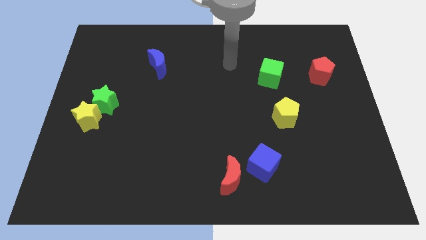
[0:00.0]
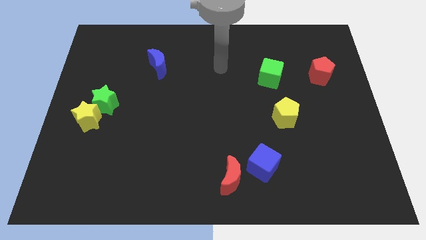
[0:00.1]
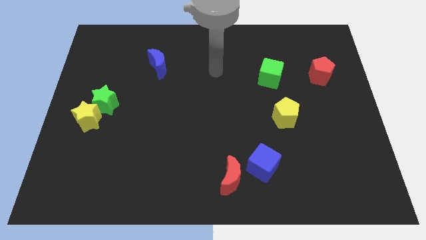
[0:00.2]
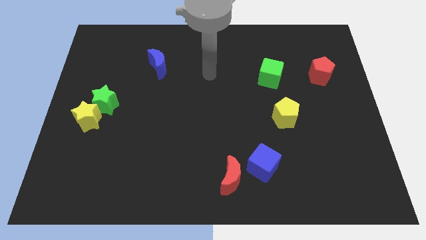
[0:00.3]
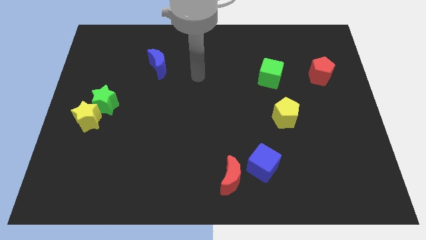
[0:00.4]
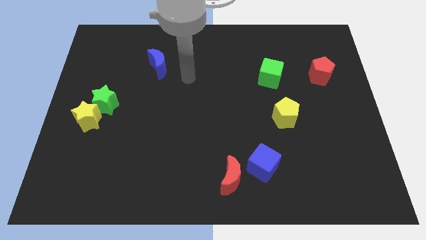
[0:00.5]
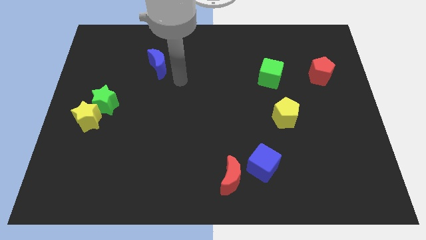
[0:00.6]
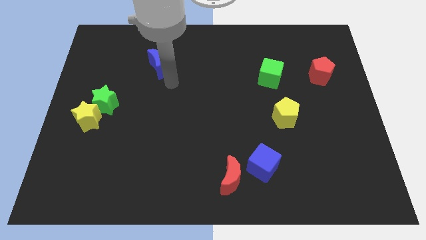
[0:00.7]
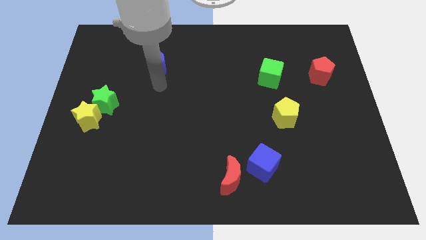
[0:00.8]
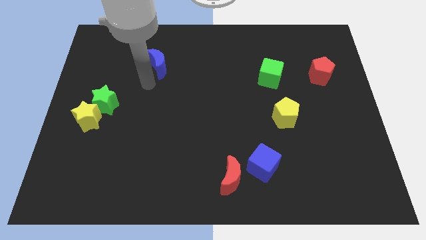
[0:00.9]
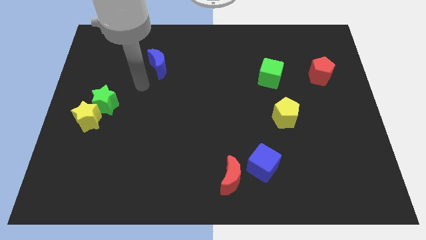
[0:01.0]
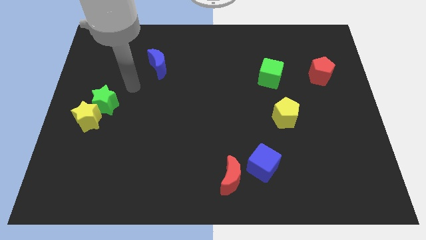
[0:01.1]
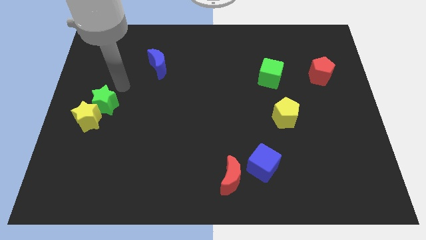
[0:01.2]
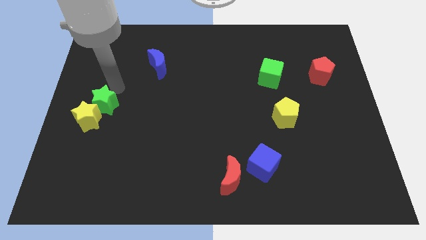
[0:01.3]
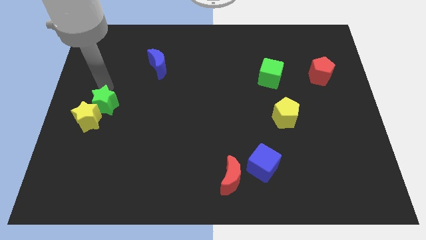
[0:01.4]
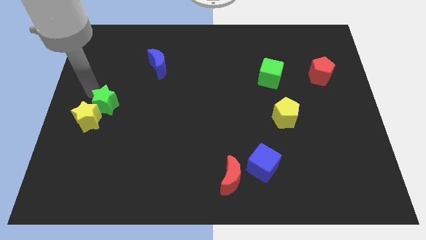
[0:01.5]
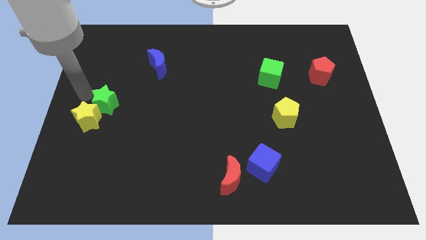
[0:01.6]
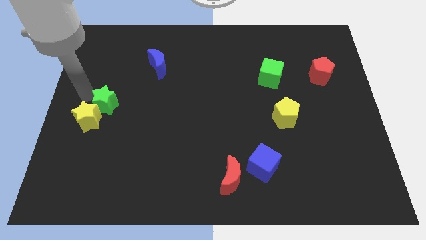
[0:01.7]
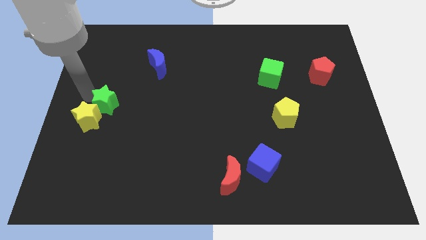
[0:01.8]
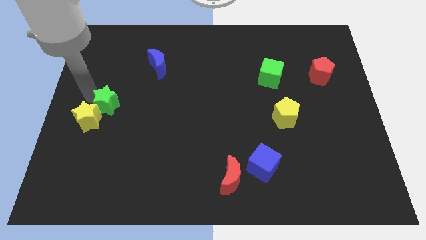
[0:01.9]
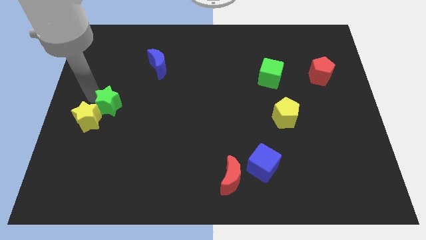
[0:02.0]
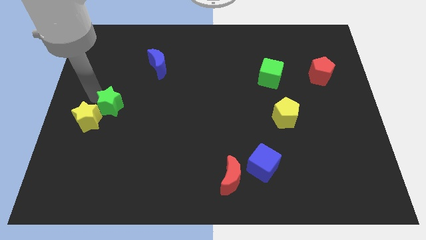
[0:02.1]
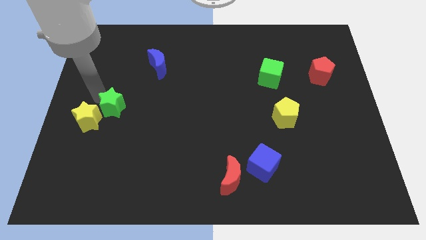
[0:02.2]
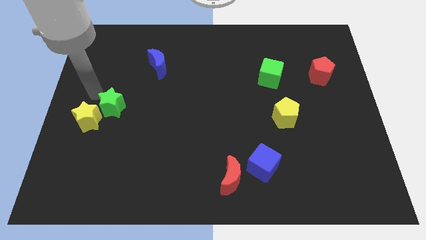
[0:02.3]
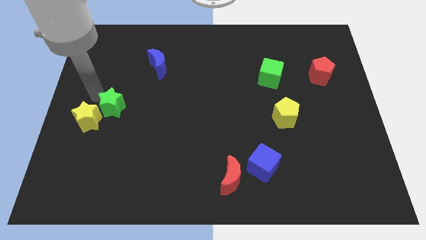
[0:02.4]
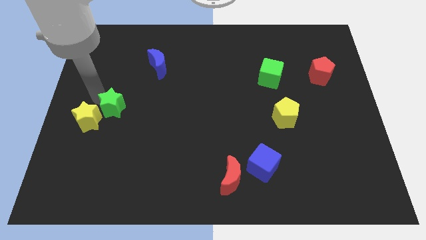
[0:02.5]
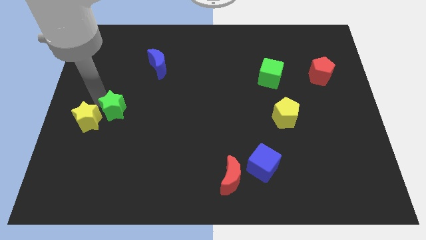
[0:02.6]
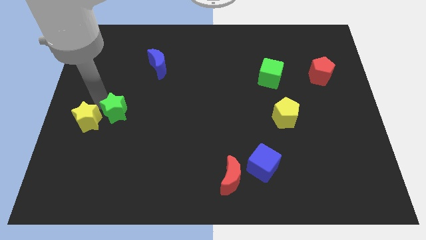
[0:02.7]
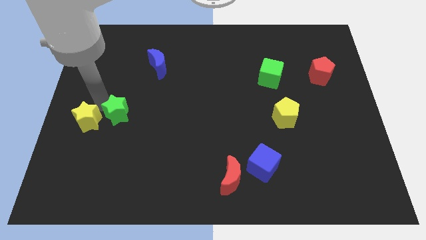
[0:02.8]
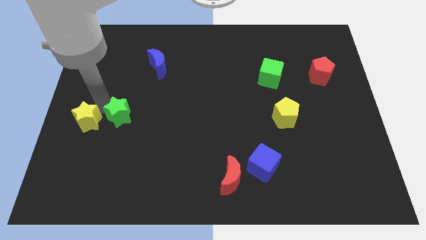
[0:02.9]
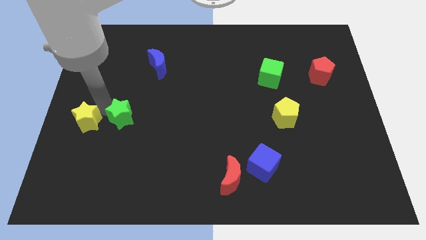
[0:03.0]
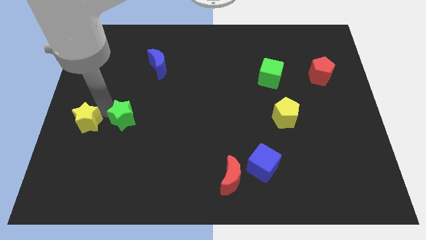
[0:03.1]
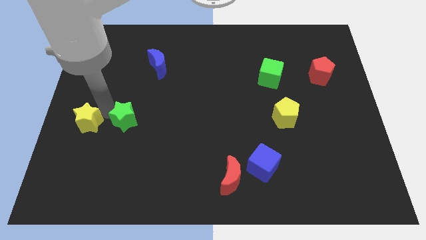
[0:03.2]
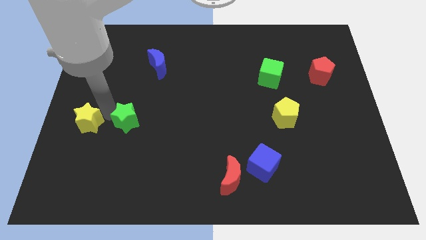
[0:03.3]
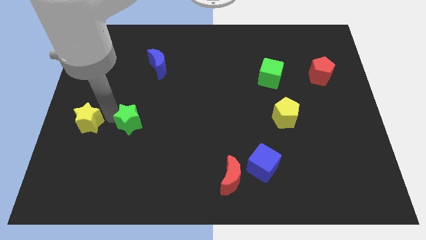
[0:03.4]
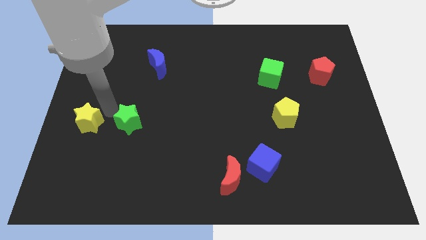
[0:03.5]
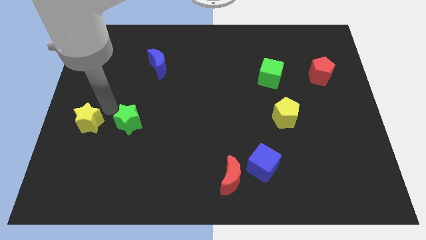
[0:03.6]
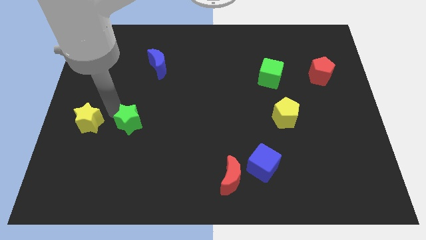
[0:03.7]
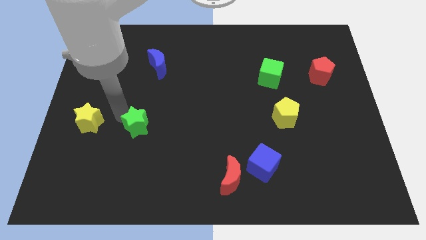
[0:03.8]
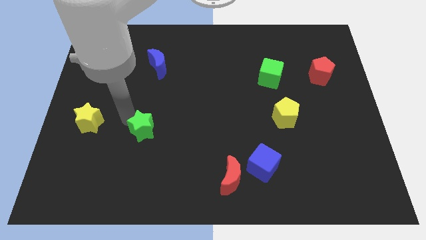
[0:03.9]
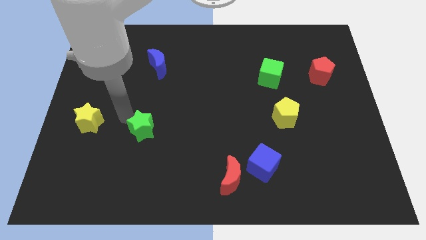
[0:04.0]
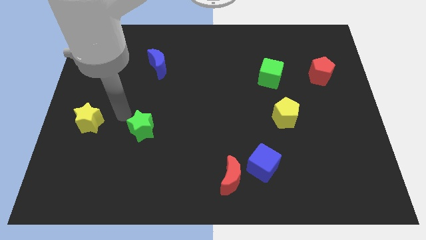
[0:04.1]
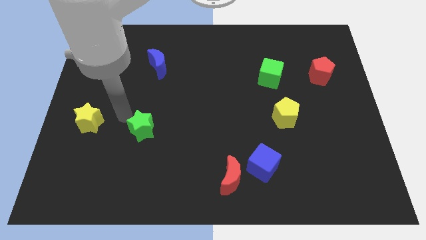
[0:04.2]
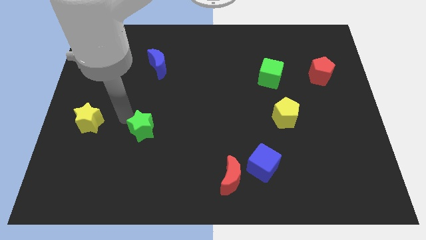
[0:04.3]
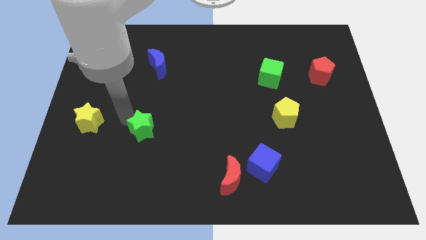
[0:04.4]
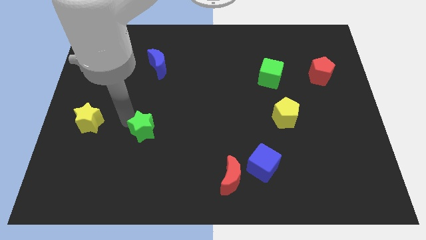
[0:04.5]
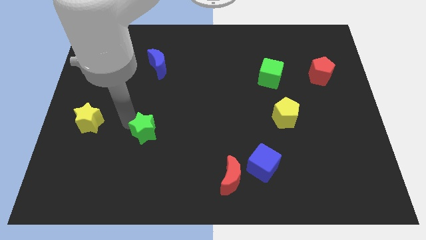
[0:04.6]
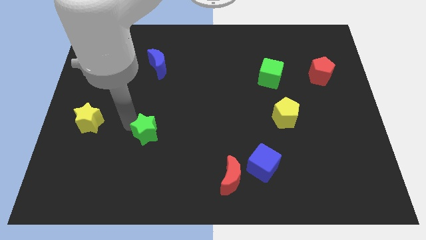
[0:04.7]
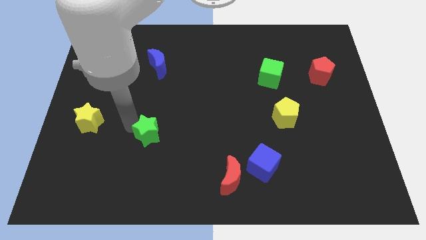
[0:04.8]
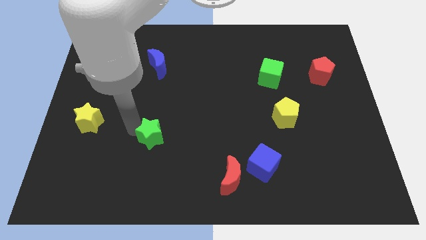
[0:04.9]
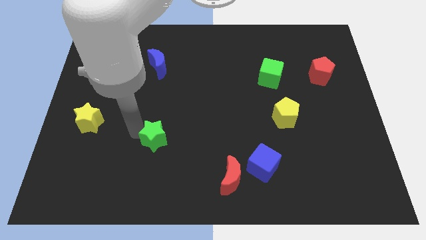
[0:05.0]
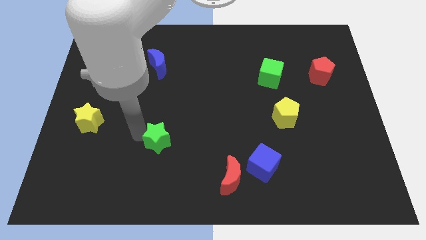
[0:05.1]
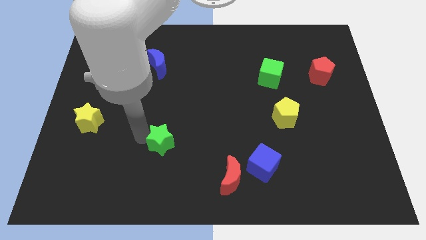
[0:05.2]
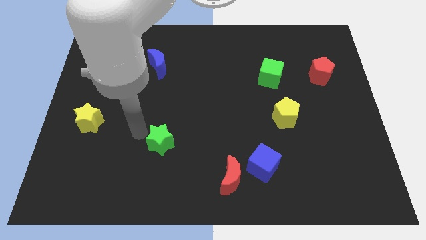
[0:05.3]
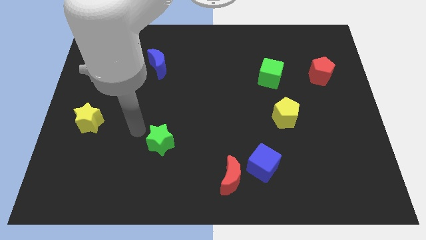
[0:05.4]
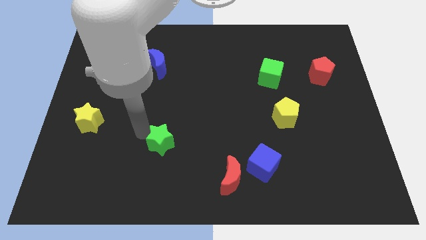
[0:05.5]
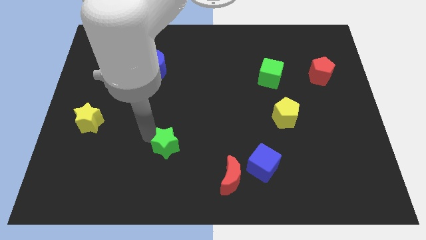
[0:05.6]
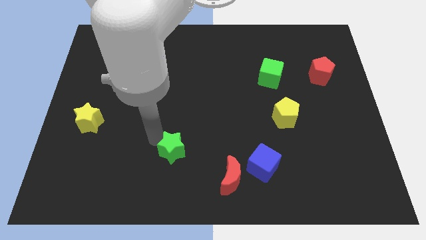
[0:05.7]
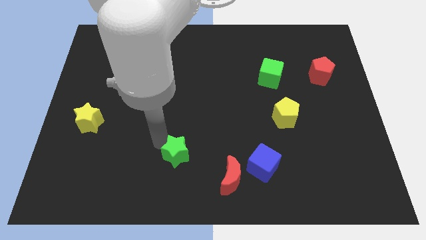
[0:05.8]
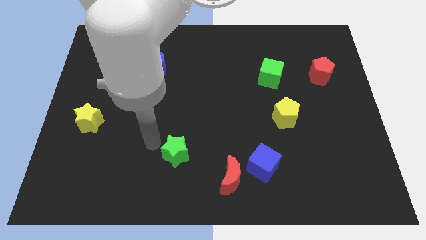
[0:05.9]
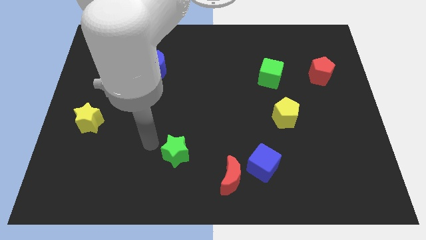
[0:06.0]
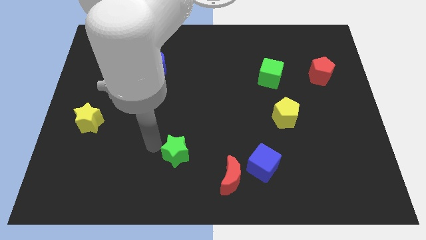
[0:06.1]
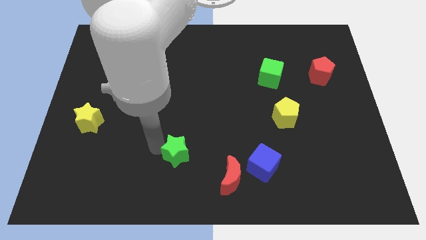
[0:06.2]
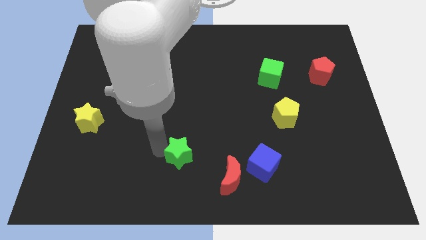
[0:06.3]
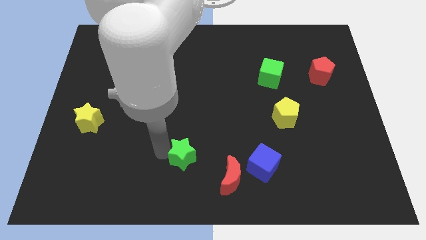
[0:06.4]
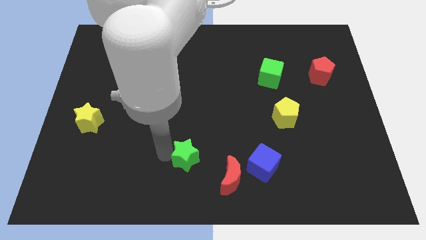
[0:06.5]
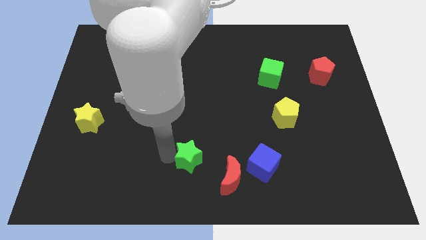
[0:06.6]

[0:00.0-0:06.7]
put the green star to the left side of the blue cube

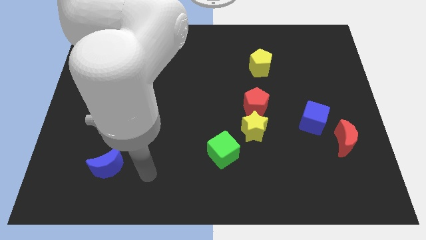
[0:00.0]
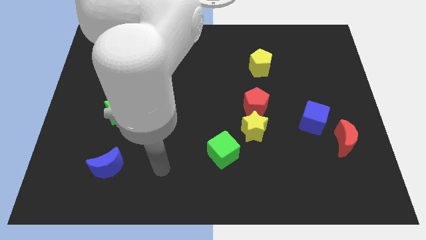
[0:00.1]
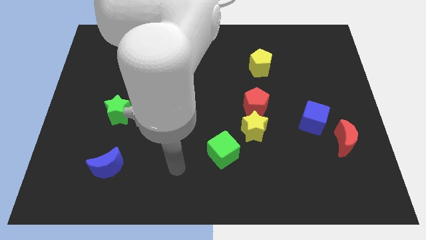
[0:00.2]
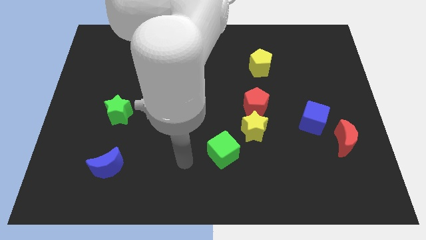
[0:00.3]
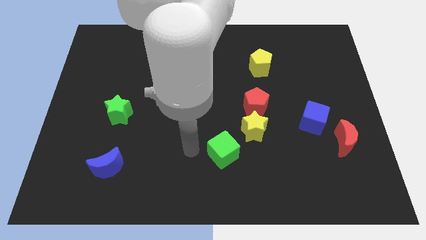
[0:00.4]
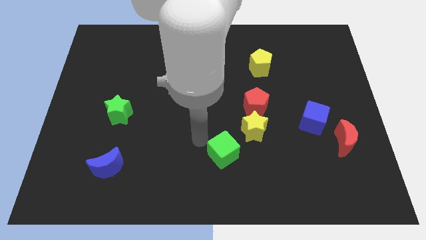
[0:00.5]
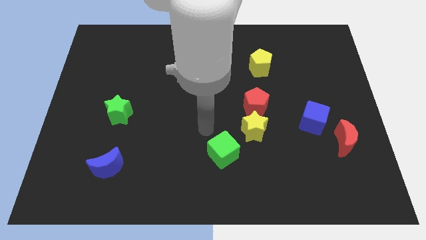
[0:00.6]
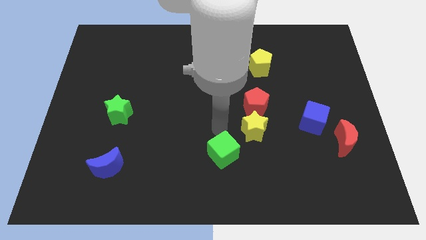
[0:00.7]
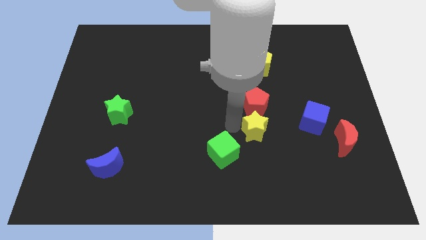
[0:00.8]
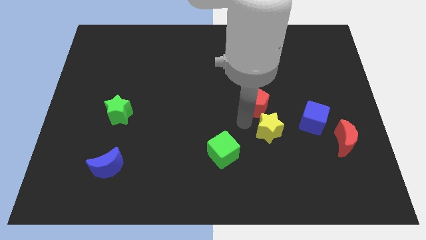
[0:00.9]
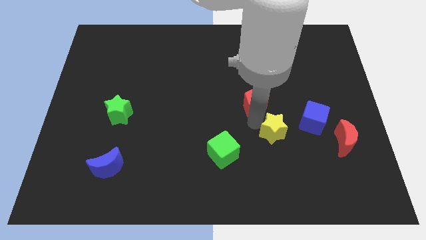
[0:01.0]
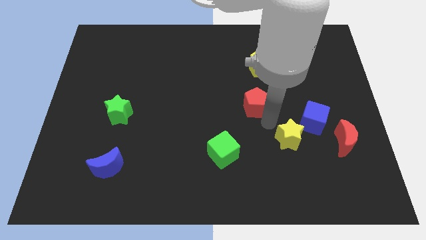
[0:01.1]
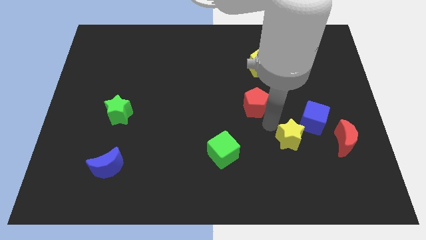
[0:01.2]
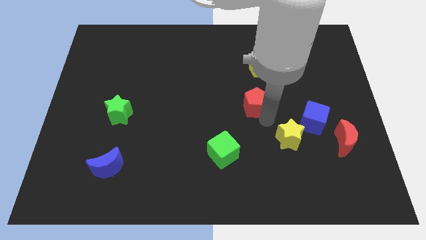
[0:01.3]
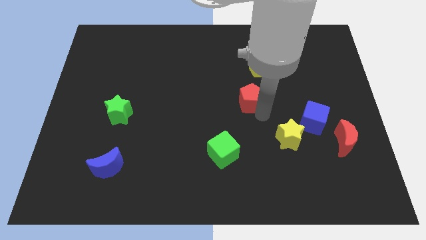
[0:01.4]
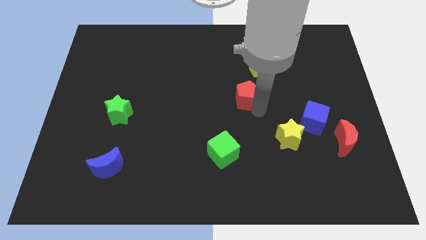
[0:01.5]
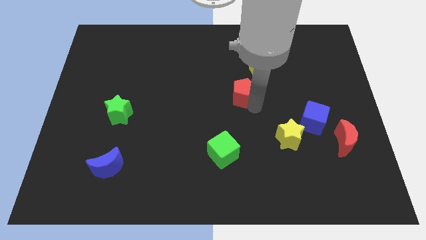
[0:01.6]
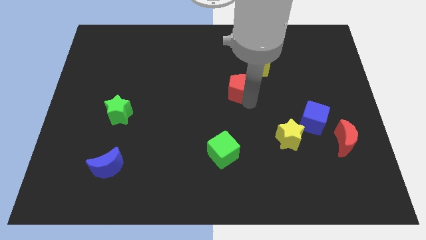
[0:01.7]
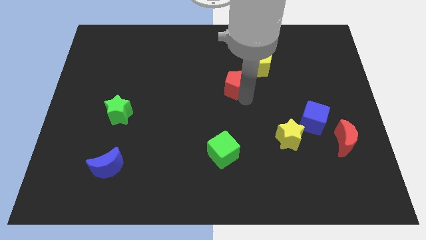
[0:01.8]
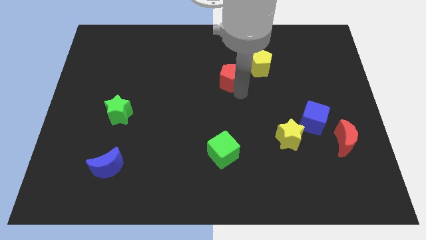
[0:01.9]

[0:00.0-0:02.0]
move the red pentagon to the left of the yellow pentagon
